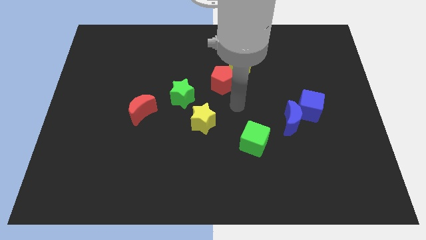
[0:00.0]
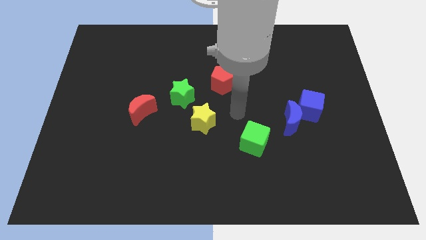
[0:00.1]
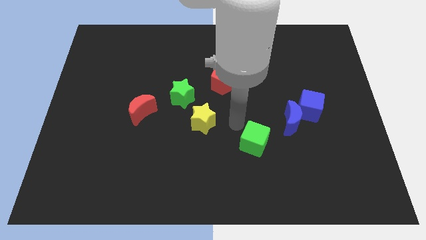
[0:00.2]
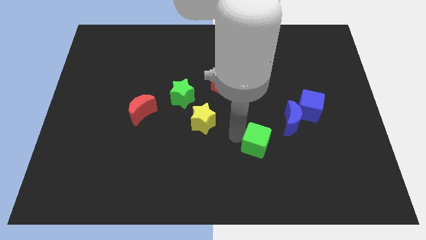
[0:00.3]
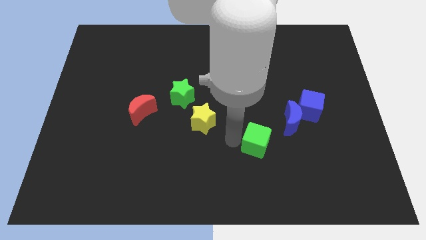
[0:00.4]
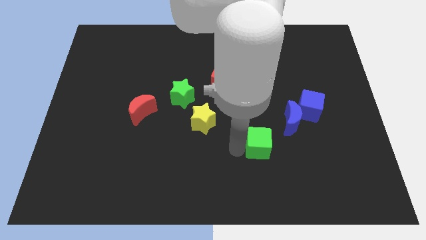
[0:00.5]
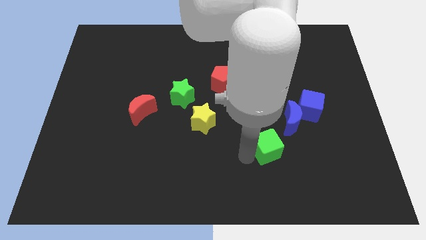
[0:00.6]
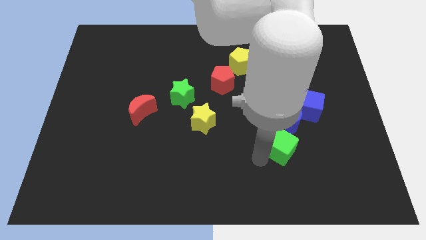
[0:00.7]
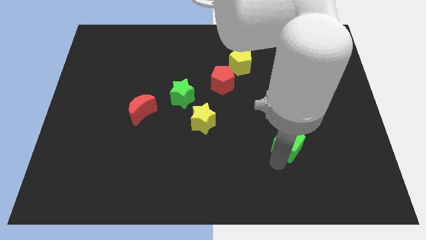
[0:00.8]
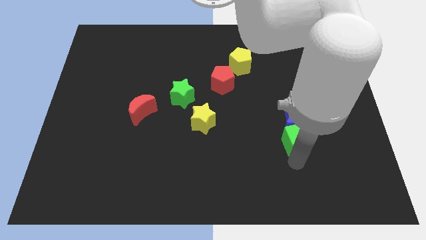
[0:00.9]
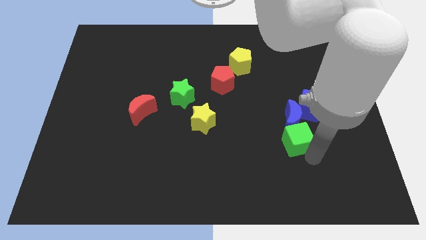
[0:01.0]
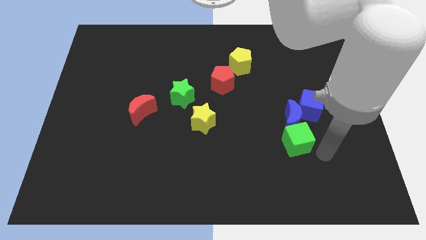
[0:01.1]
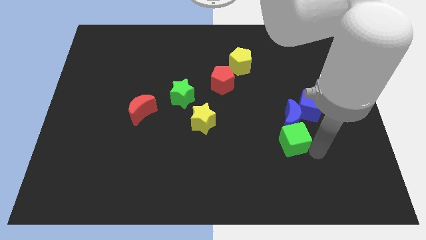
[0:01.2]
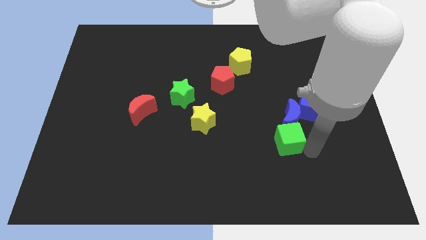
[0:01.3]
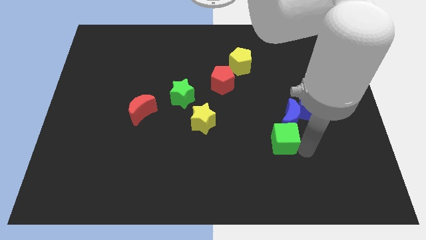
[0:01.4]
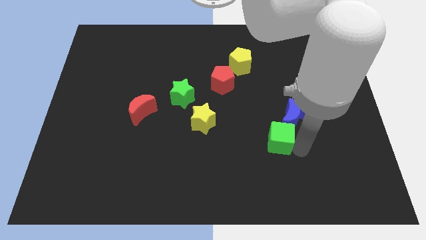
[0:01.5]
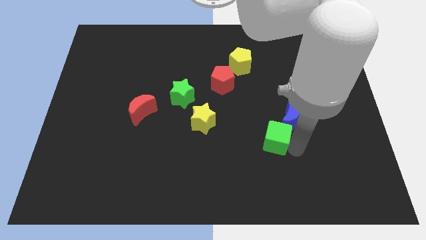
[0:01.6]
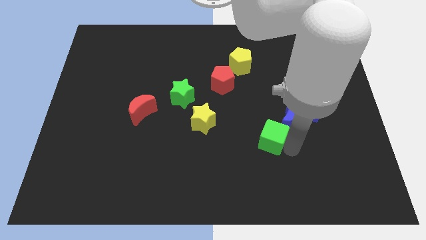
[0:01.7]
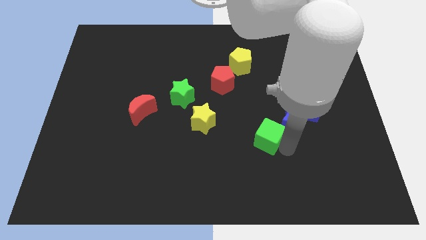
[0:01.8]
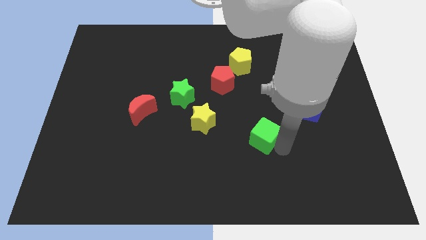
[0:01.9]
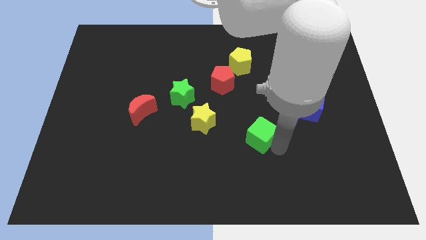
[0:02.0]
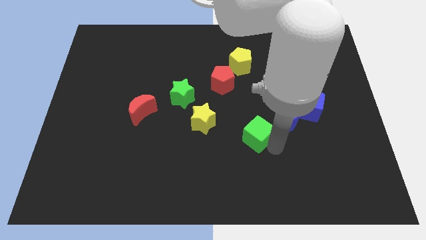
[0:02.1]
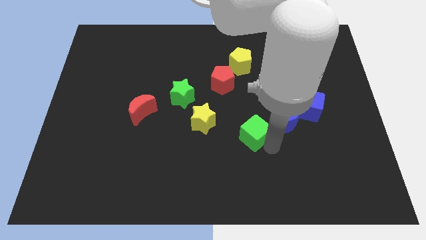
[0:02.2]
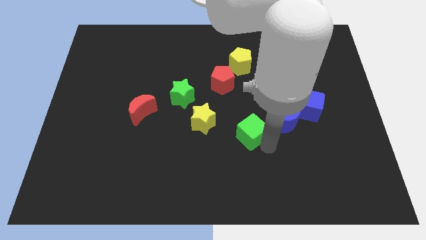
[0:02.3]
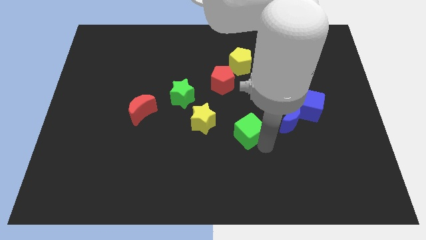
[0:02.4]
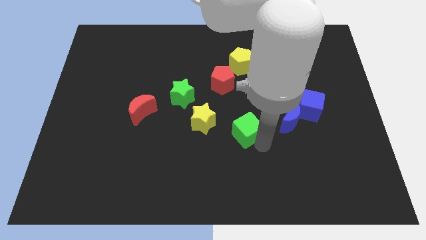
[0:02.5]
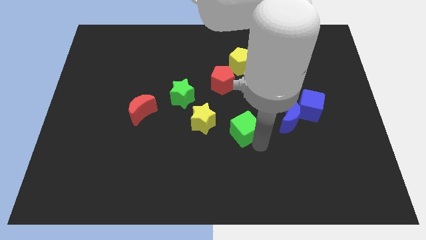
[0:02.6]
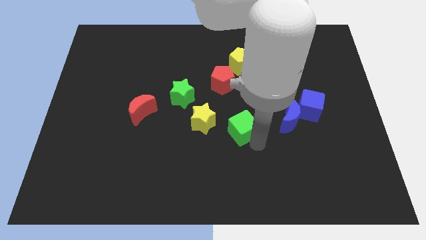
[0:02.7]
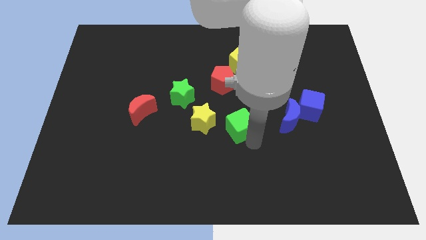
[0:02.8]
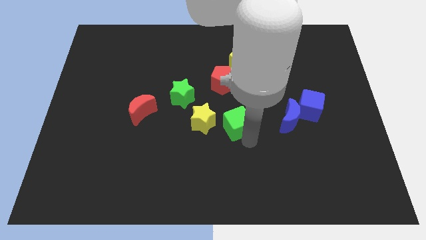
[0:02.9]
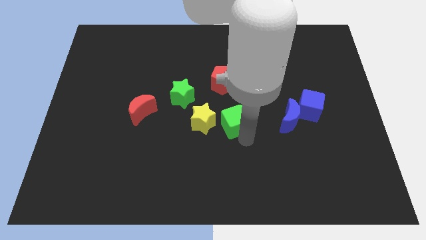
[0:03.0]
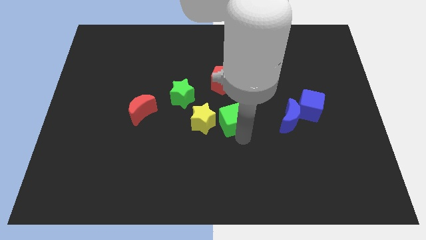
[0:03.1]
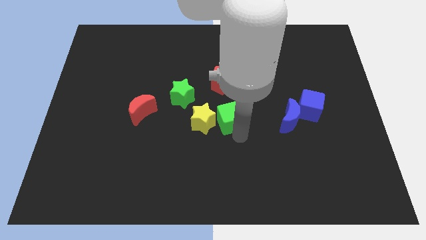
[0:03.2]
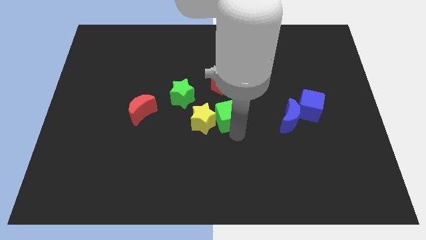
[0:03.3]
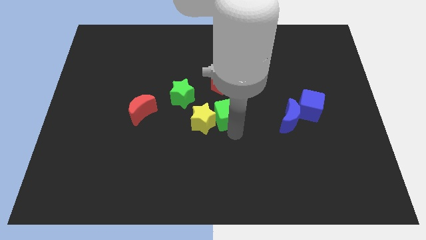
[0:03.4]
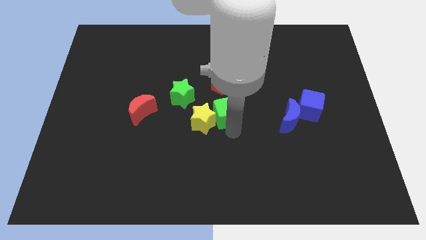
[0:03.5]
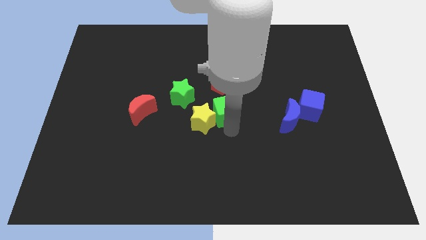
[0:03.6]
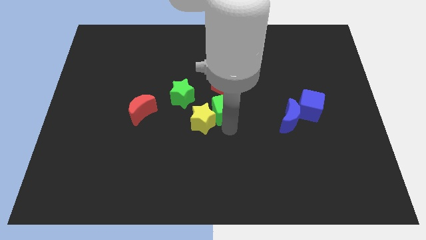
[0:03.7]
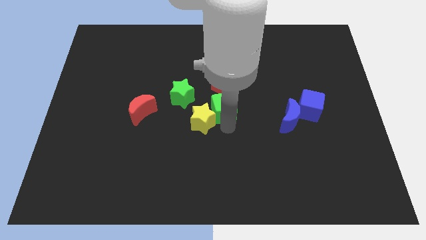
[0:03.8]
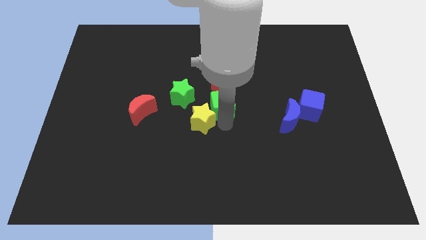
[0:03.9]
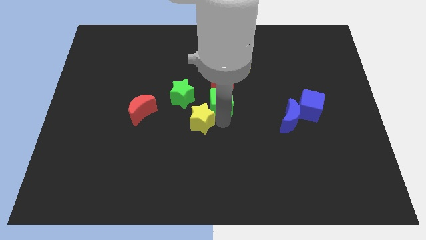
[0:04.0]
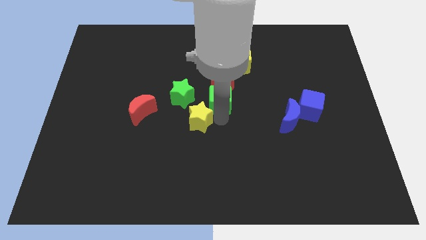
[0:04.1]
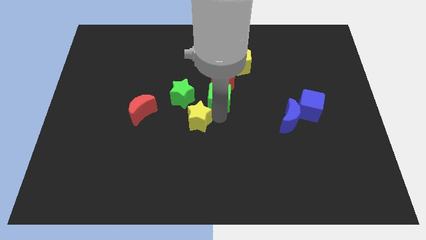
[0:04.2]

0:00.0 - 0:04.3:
put the green cube close to the red pentagon

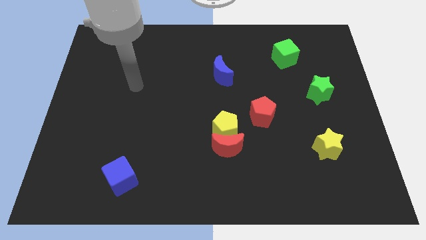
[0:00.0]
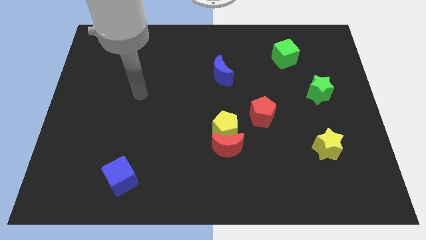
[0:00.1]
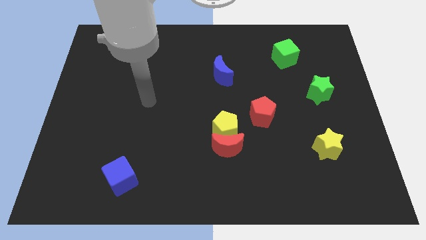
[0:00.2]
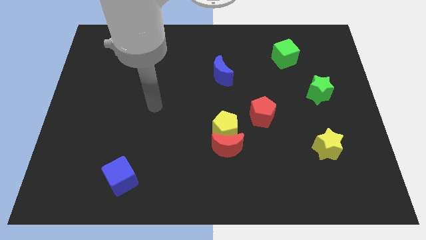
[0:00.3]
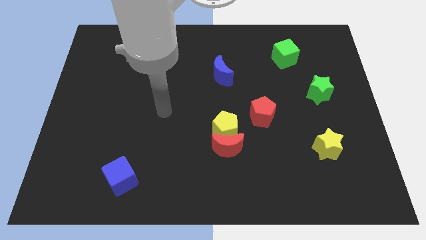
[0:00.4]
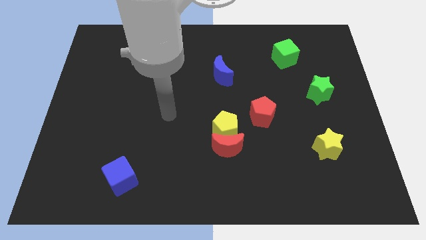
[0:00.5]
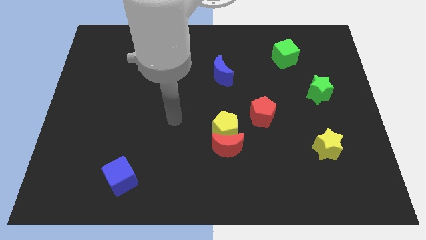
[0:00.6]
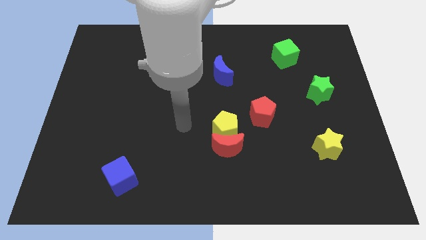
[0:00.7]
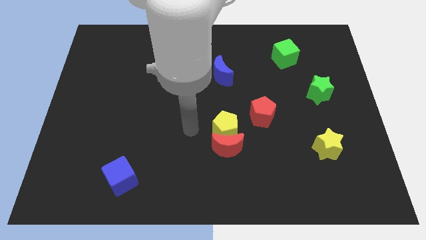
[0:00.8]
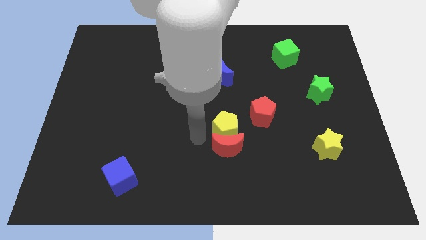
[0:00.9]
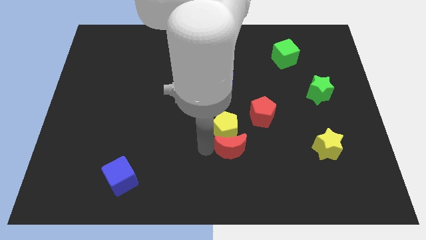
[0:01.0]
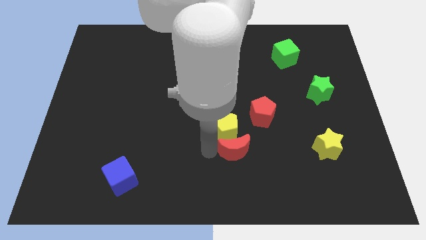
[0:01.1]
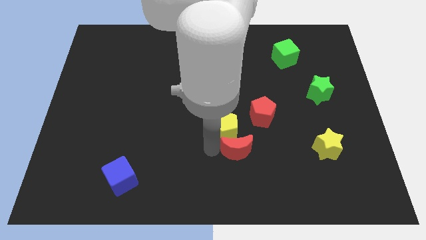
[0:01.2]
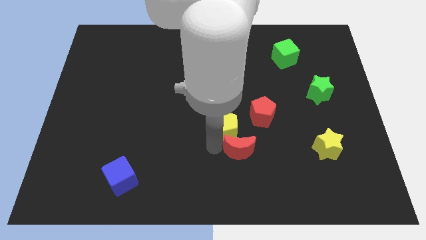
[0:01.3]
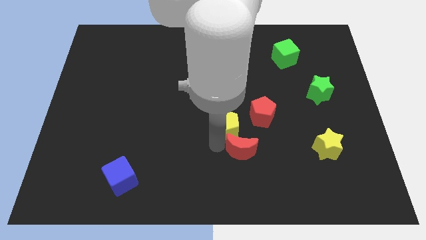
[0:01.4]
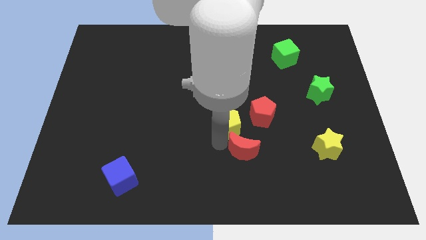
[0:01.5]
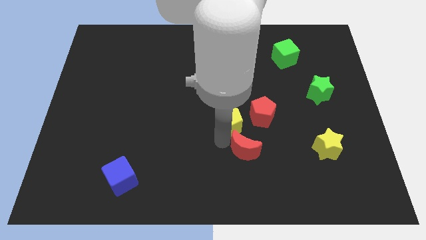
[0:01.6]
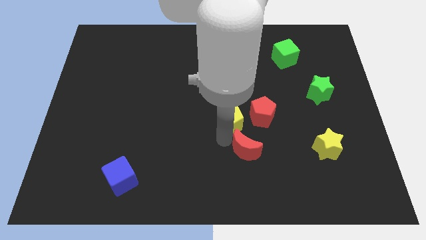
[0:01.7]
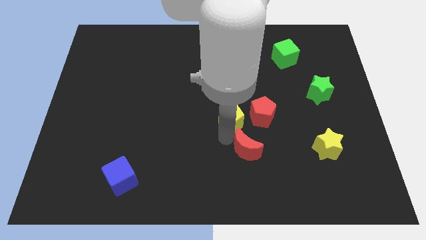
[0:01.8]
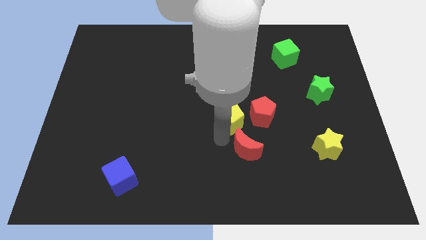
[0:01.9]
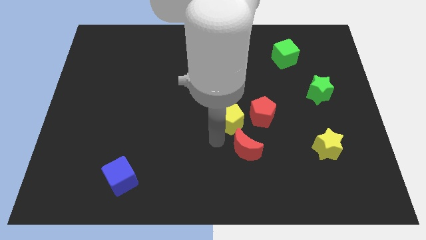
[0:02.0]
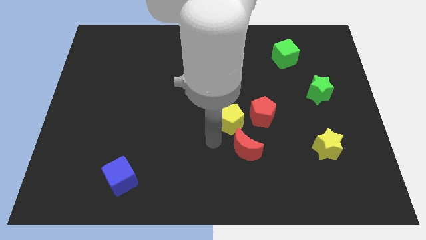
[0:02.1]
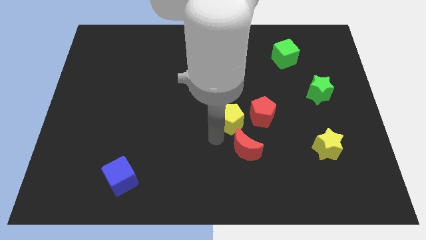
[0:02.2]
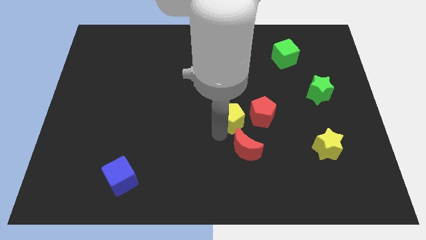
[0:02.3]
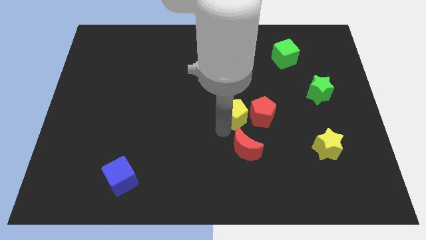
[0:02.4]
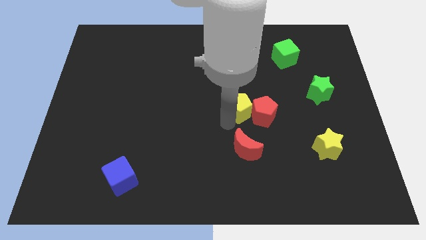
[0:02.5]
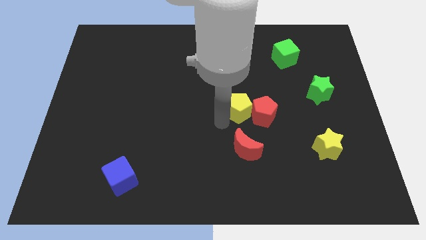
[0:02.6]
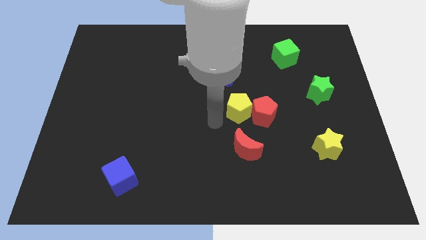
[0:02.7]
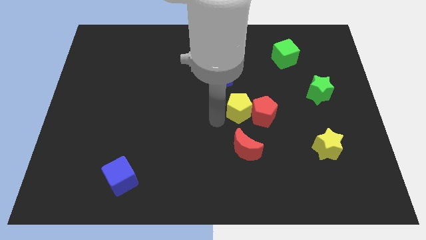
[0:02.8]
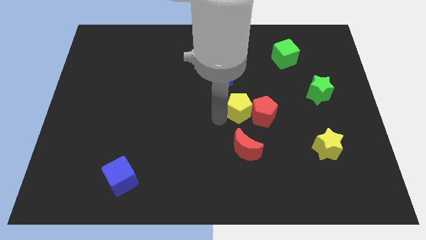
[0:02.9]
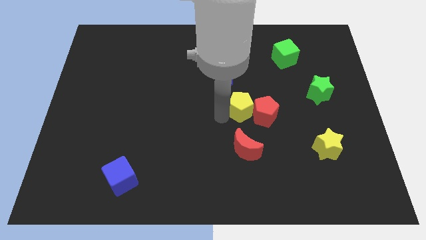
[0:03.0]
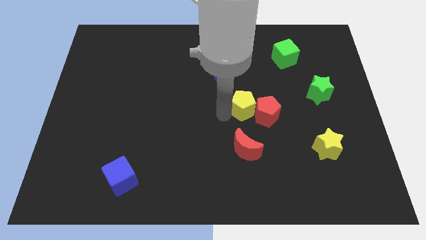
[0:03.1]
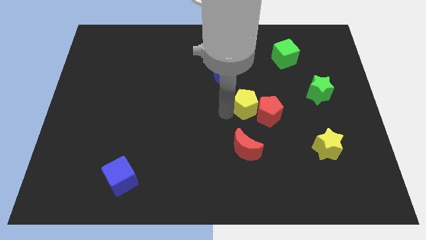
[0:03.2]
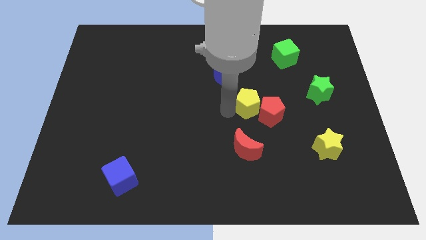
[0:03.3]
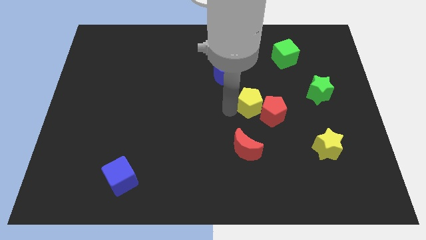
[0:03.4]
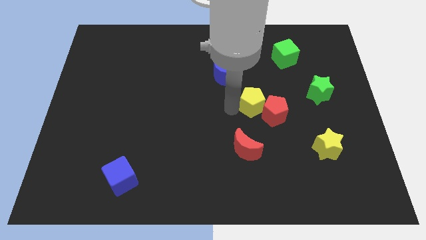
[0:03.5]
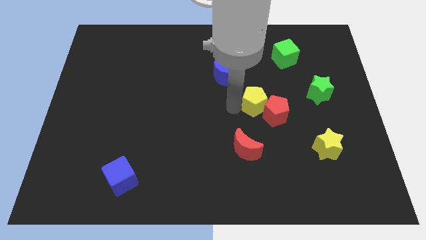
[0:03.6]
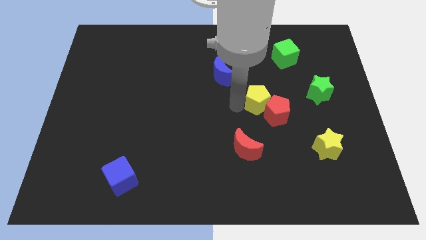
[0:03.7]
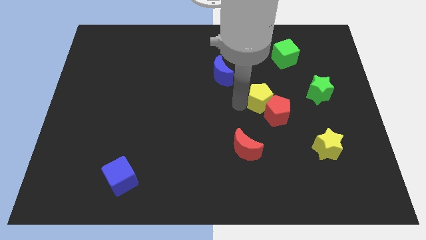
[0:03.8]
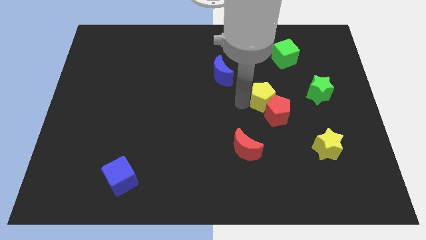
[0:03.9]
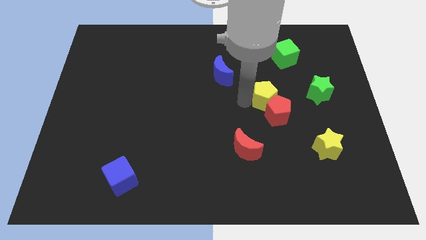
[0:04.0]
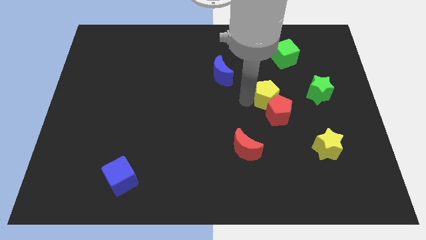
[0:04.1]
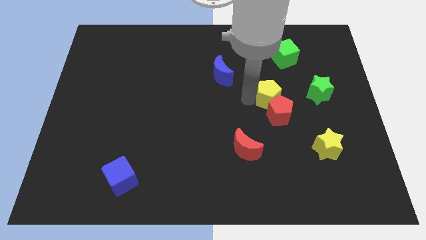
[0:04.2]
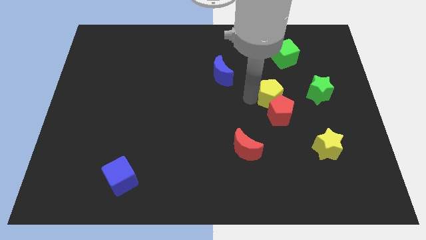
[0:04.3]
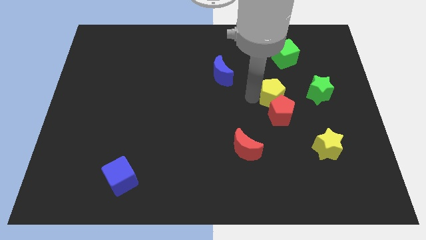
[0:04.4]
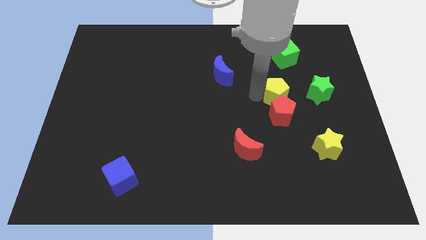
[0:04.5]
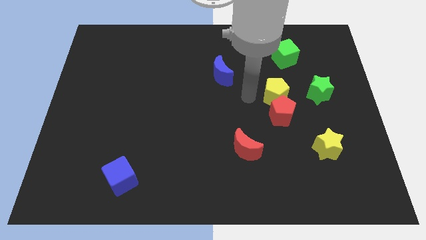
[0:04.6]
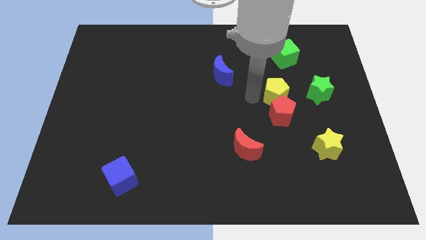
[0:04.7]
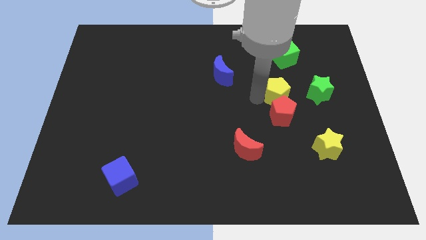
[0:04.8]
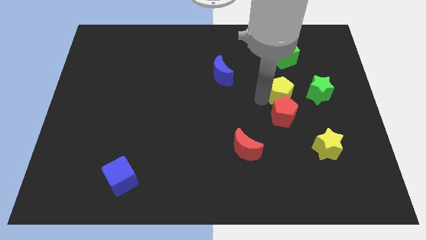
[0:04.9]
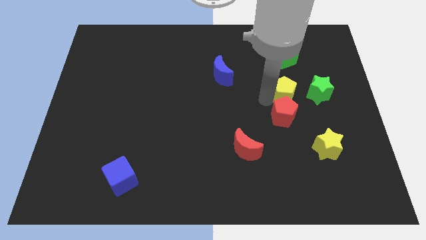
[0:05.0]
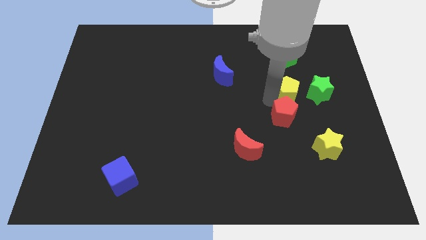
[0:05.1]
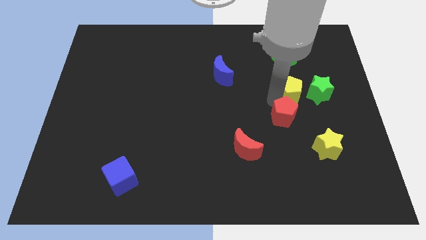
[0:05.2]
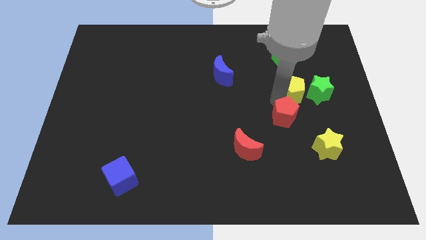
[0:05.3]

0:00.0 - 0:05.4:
slide the yellow pentagon next to the green star
